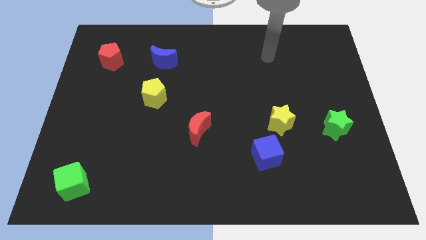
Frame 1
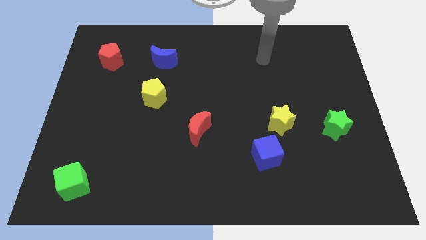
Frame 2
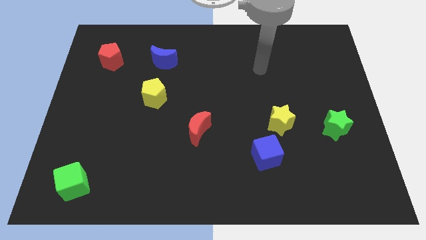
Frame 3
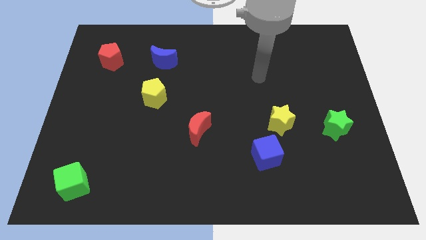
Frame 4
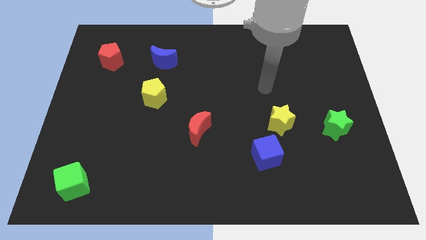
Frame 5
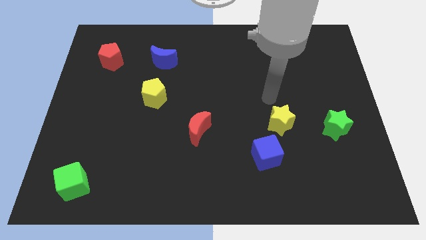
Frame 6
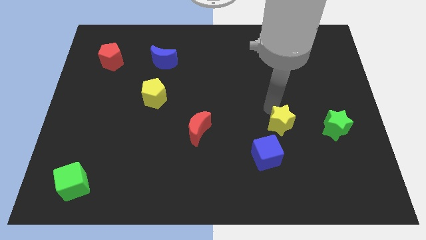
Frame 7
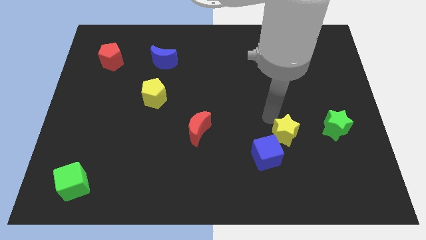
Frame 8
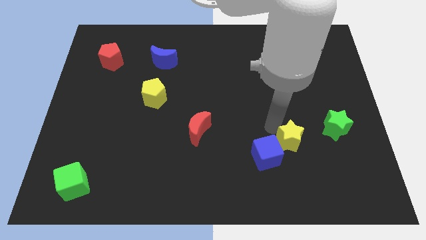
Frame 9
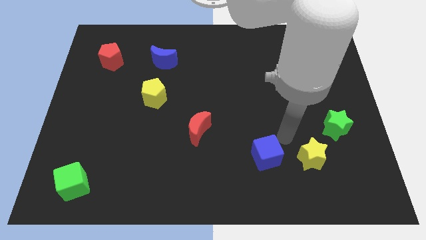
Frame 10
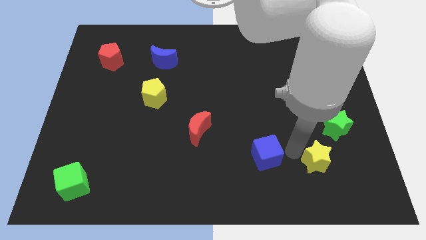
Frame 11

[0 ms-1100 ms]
move the blue cube away from the yellow star

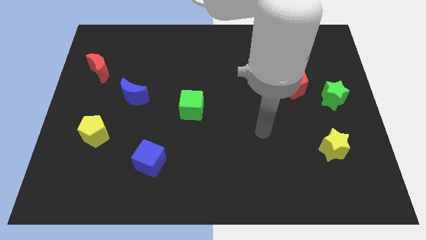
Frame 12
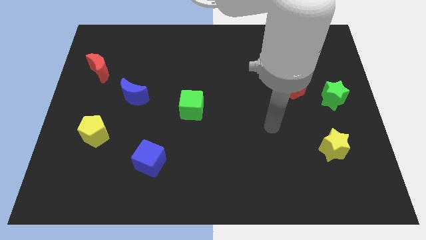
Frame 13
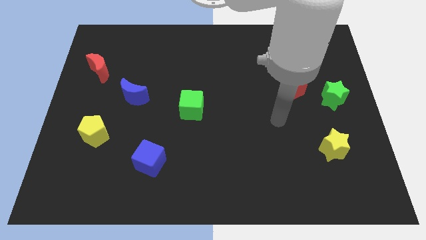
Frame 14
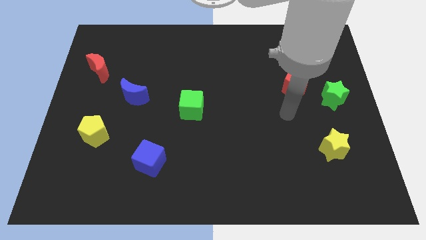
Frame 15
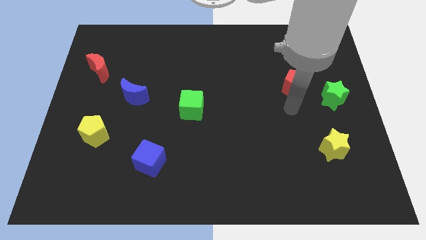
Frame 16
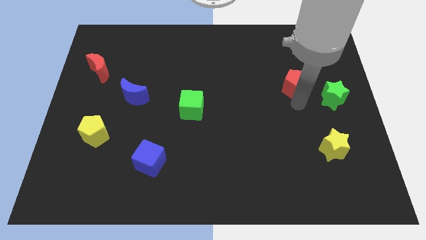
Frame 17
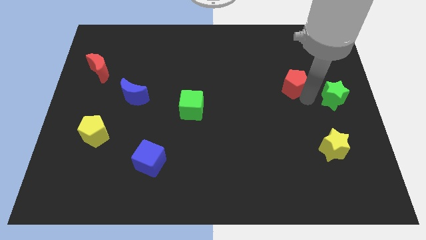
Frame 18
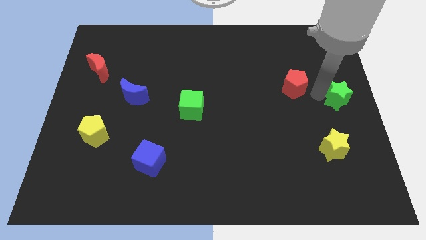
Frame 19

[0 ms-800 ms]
pull the red pentagon apart from the green star

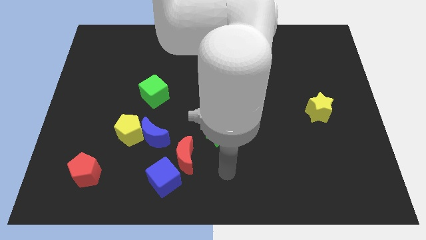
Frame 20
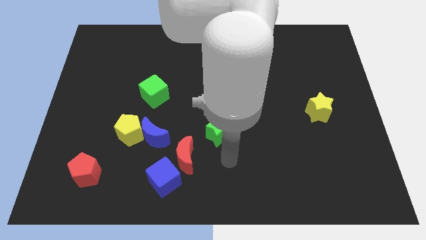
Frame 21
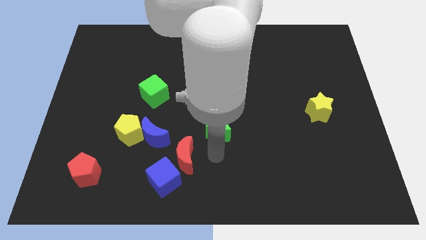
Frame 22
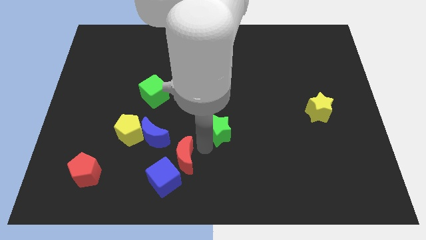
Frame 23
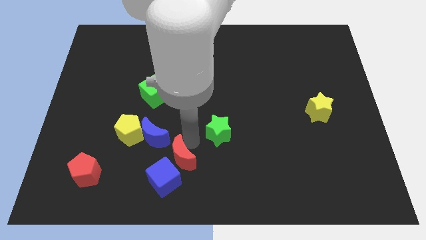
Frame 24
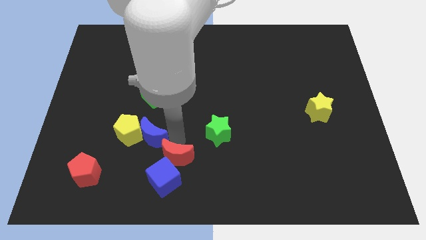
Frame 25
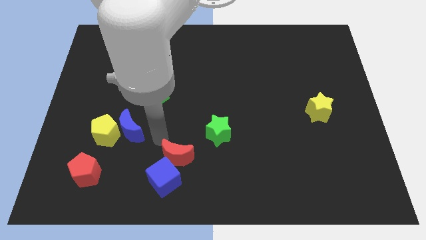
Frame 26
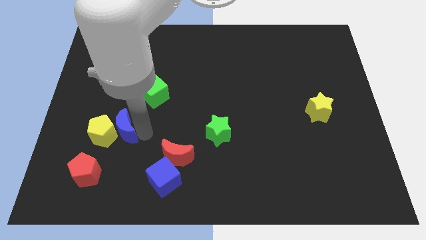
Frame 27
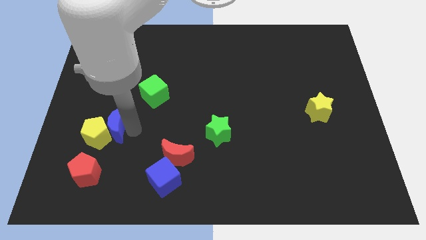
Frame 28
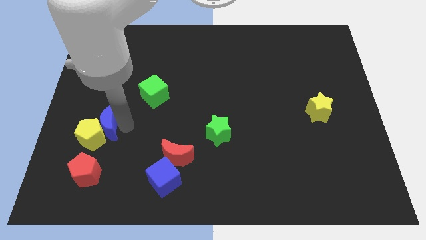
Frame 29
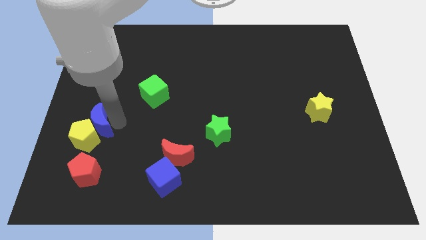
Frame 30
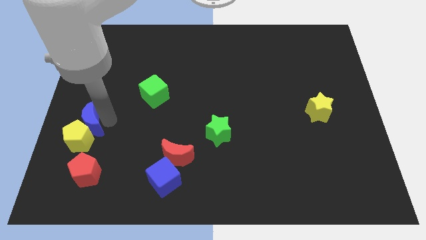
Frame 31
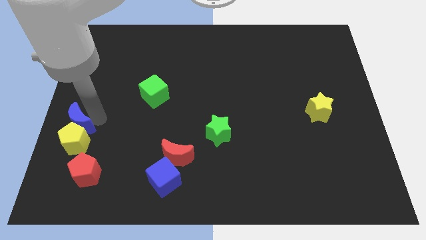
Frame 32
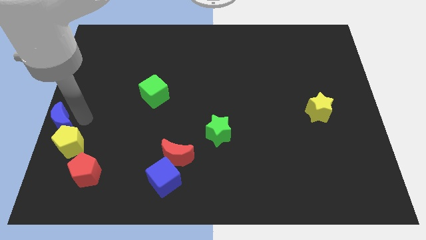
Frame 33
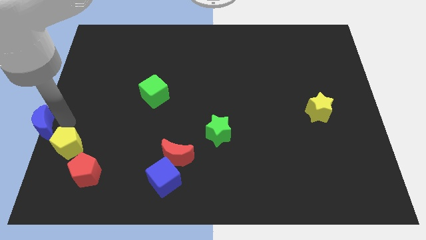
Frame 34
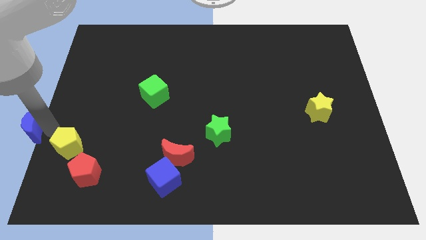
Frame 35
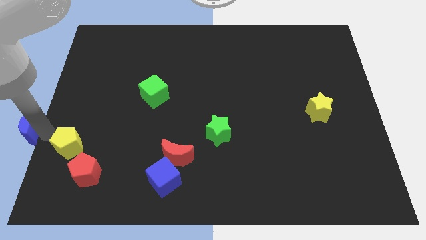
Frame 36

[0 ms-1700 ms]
separate the yellow pentagon from the blue moon

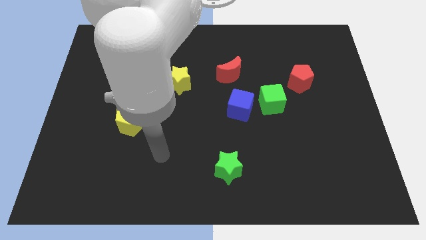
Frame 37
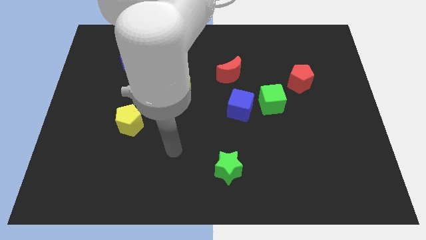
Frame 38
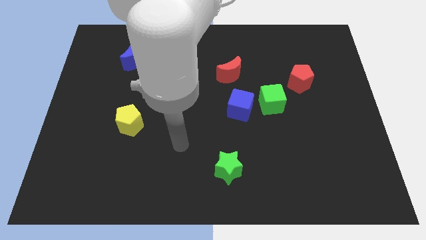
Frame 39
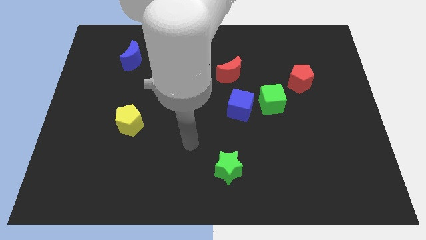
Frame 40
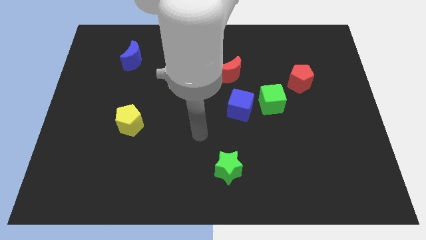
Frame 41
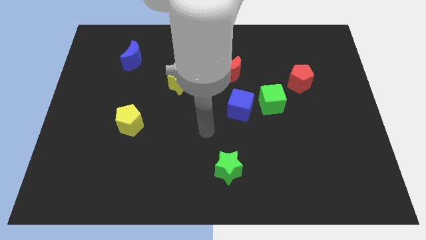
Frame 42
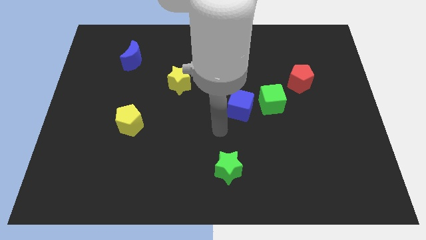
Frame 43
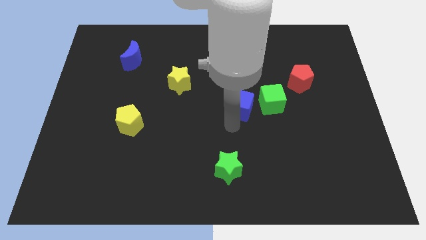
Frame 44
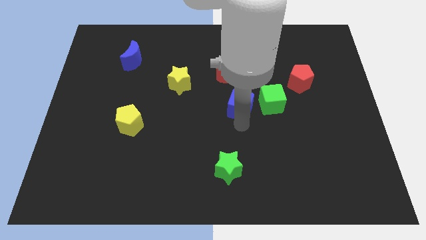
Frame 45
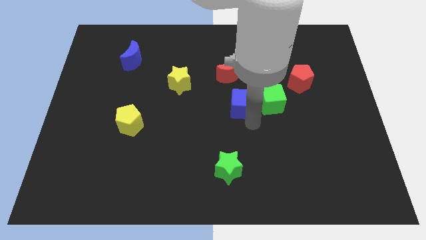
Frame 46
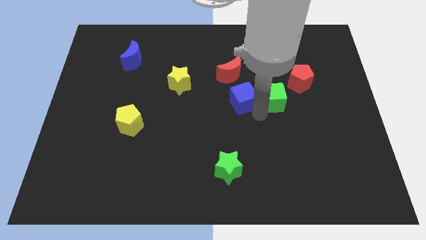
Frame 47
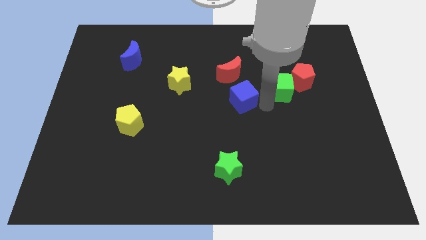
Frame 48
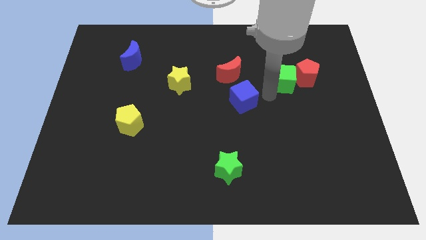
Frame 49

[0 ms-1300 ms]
move the blue cube away from the green cube

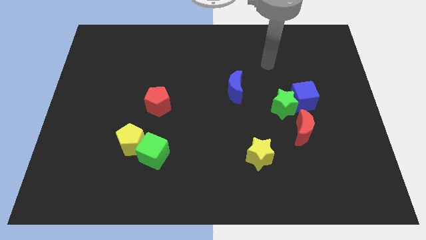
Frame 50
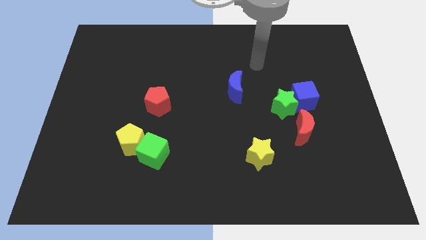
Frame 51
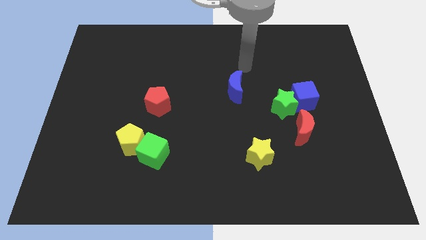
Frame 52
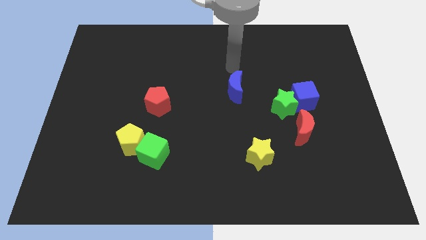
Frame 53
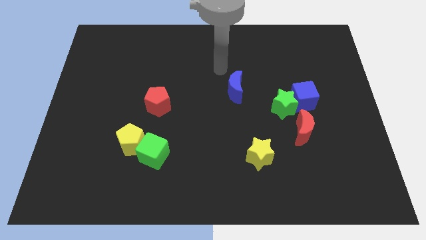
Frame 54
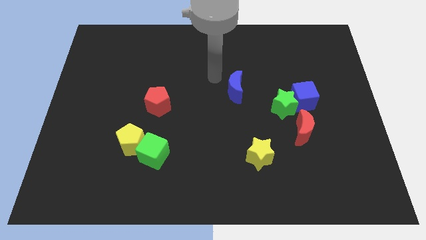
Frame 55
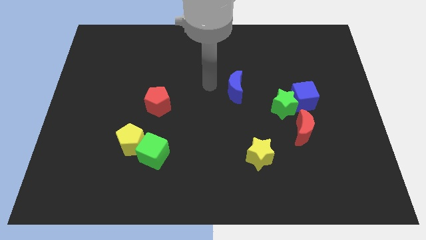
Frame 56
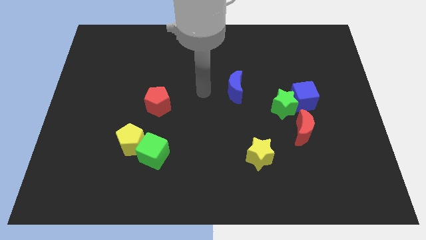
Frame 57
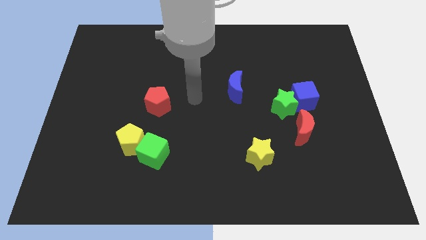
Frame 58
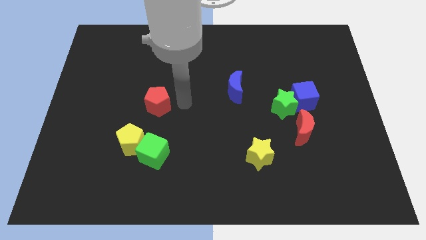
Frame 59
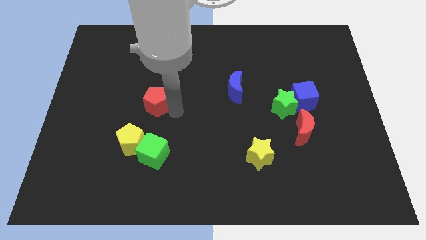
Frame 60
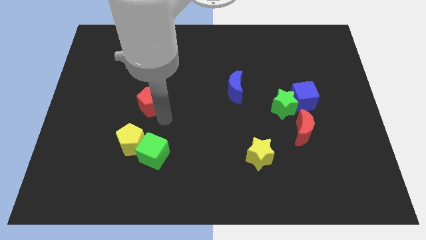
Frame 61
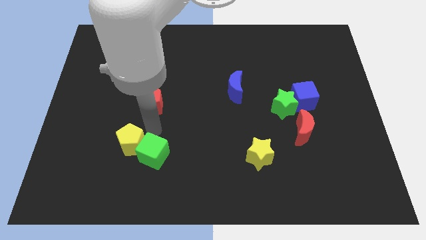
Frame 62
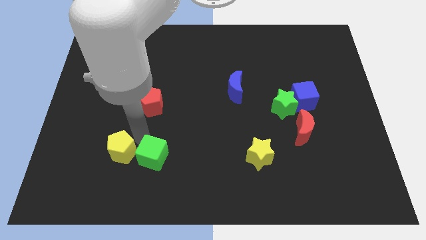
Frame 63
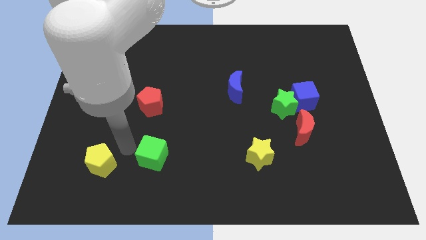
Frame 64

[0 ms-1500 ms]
separate the green cube from the yellow pentagon

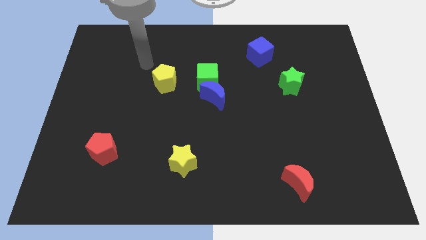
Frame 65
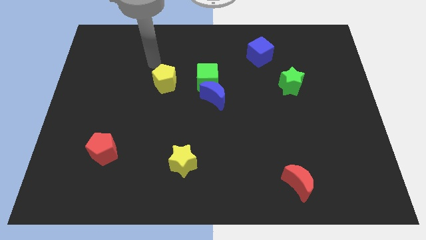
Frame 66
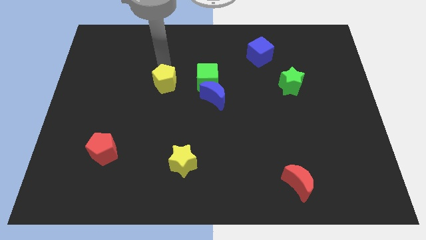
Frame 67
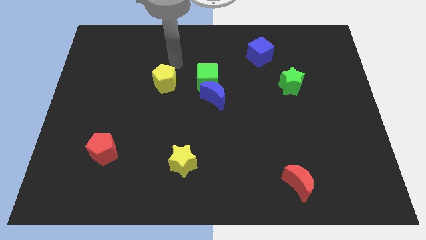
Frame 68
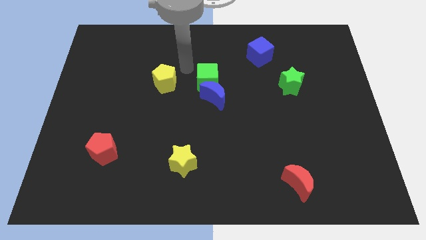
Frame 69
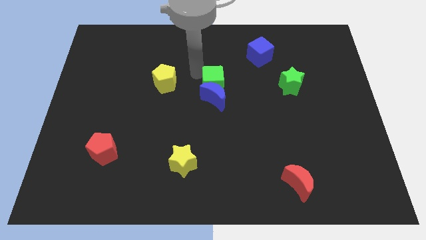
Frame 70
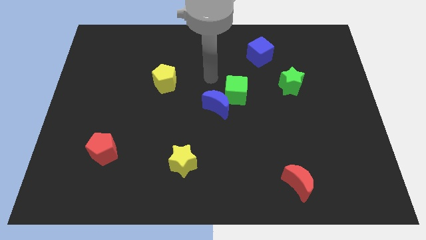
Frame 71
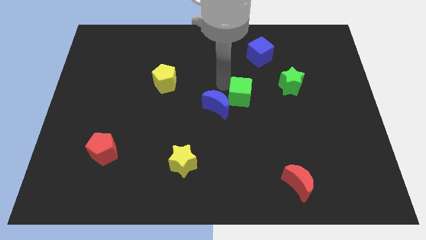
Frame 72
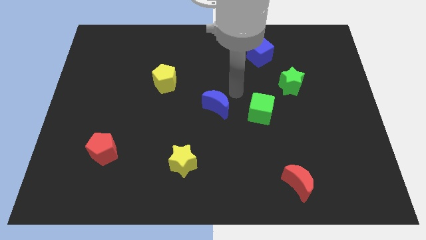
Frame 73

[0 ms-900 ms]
separate the blue moon from the green cube

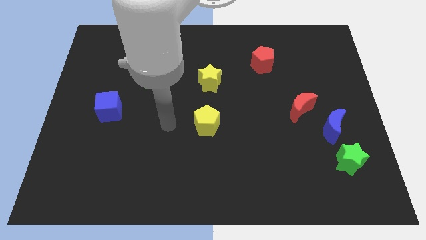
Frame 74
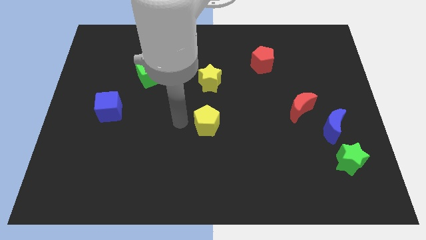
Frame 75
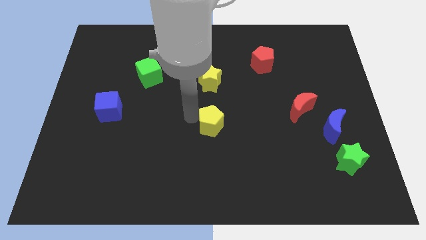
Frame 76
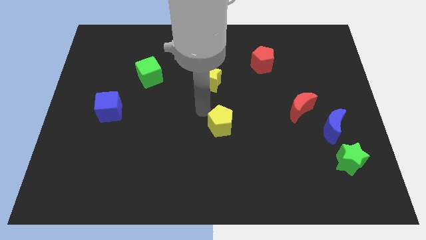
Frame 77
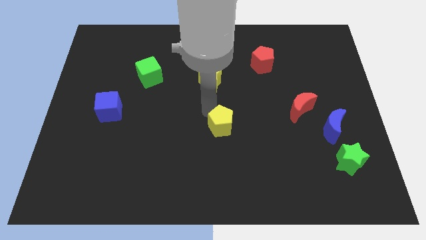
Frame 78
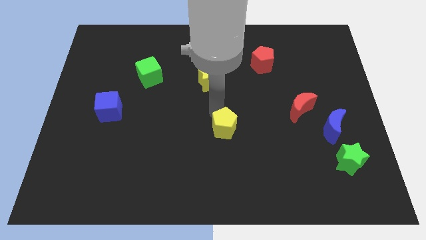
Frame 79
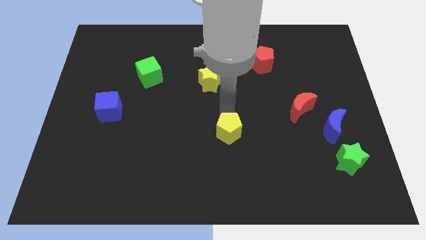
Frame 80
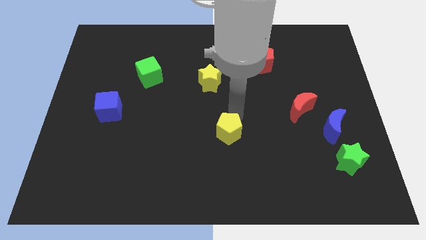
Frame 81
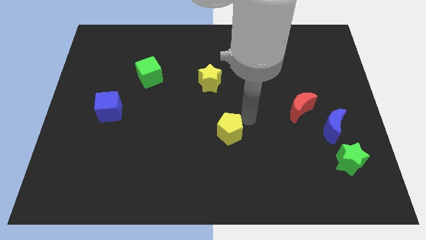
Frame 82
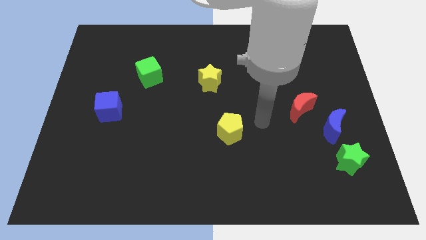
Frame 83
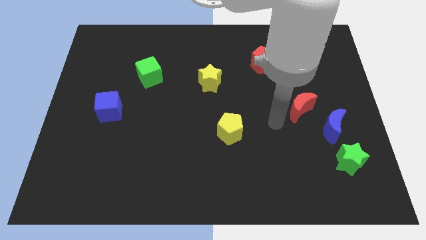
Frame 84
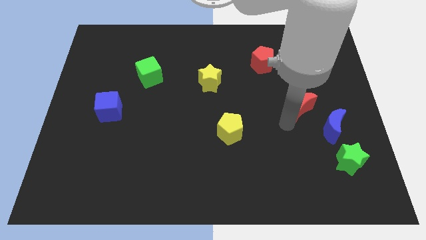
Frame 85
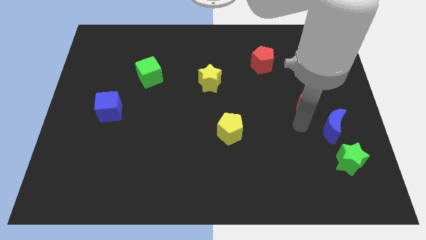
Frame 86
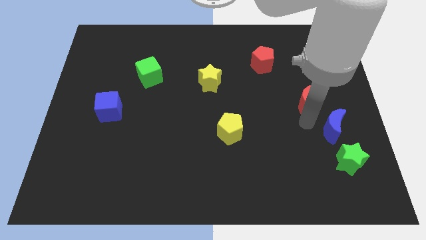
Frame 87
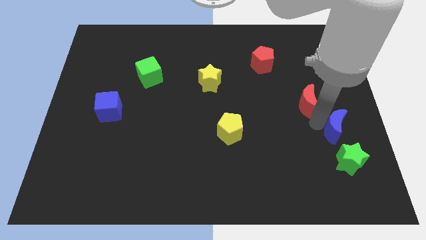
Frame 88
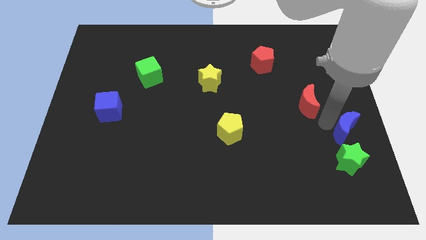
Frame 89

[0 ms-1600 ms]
separate the red moon from the blue moon

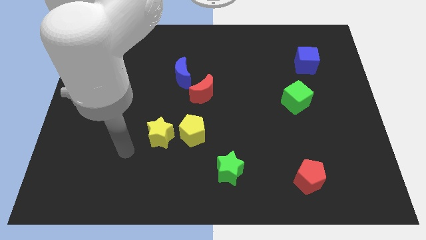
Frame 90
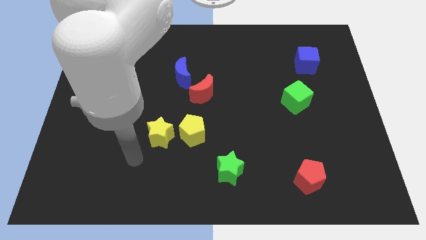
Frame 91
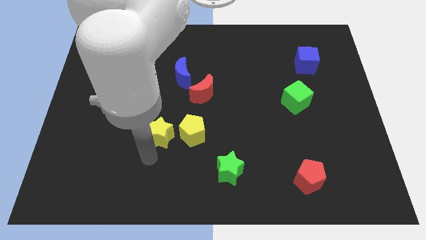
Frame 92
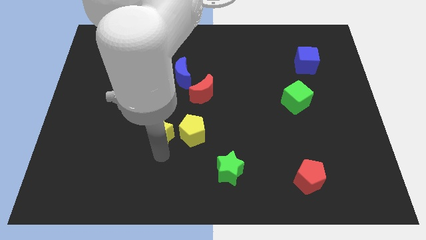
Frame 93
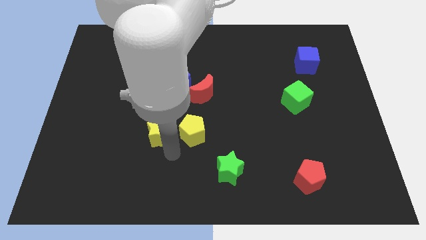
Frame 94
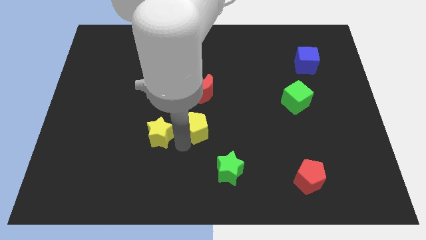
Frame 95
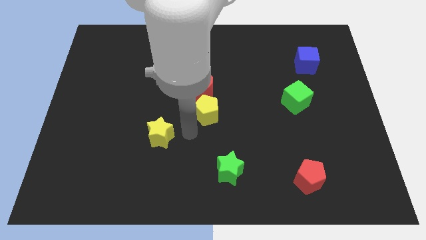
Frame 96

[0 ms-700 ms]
pull the yellow star apart from the yellow pentagon
